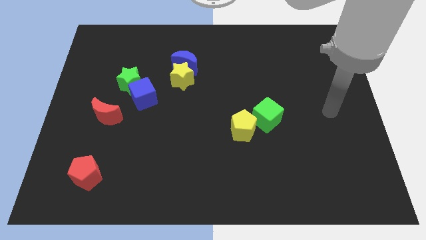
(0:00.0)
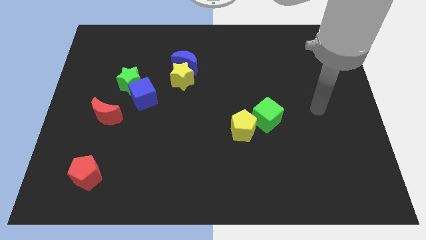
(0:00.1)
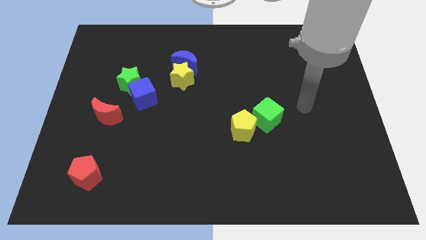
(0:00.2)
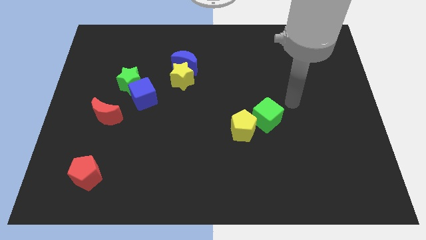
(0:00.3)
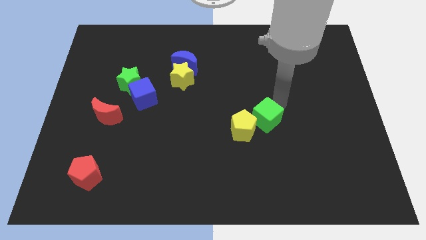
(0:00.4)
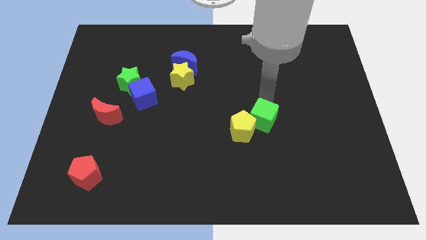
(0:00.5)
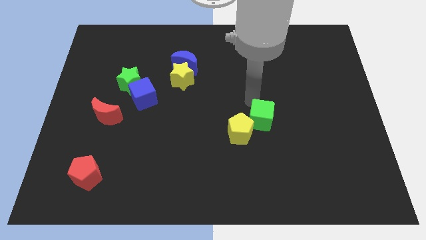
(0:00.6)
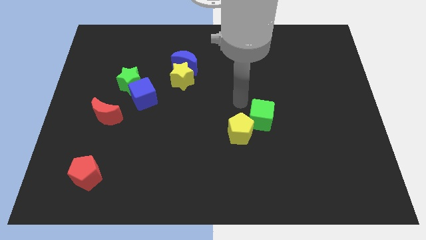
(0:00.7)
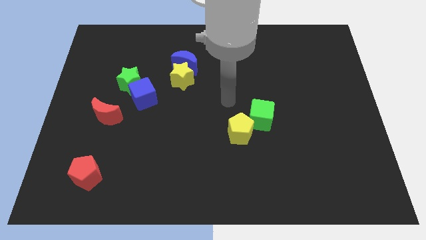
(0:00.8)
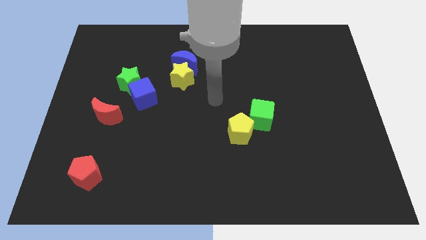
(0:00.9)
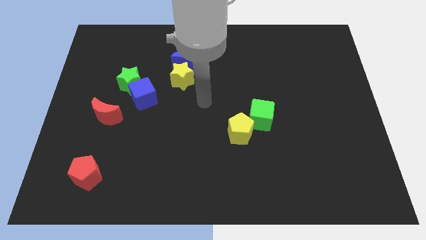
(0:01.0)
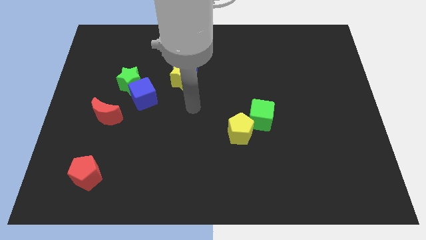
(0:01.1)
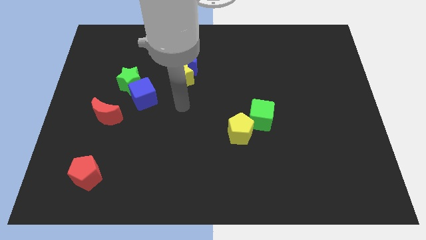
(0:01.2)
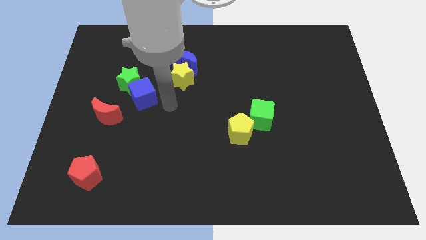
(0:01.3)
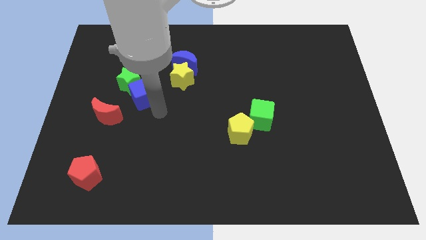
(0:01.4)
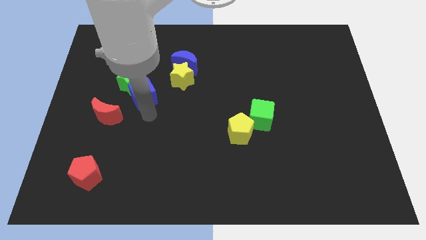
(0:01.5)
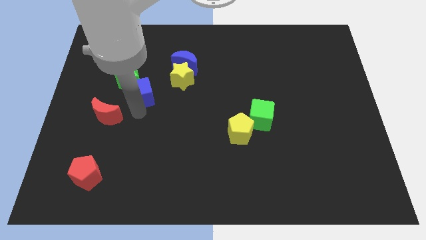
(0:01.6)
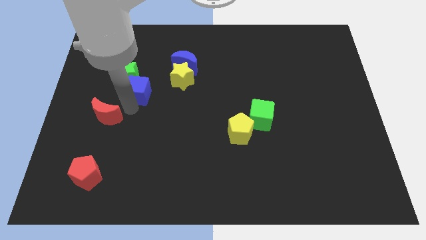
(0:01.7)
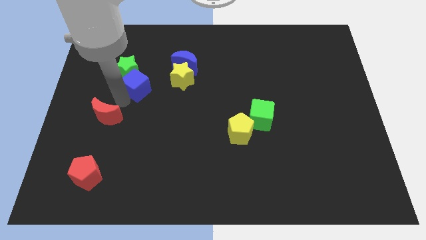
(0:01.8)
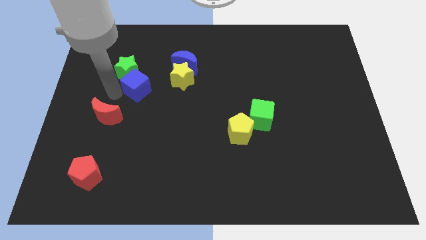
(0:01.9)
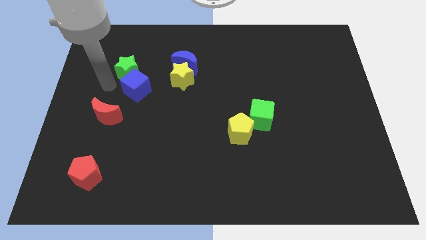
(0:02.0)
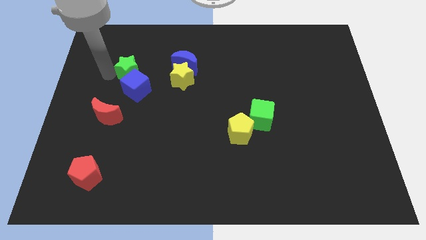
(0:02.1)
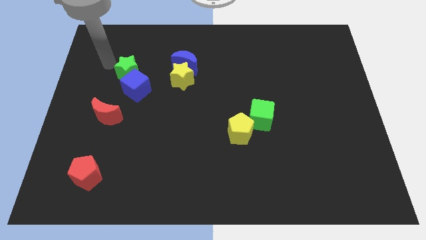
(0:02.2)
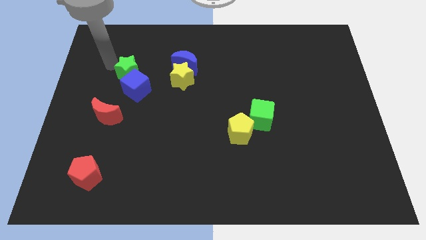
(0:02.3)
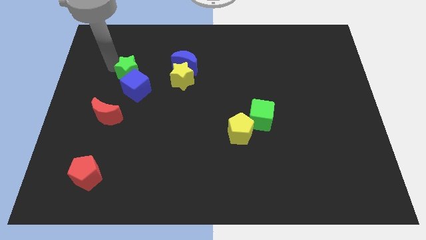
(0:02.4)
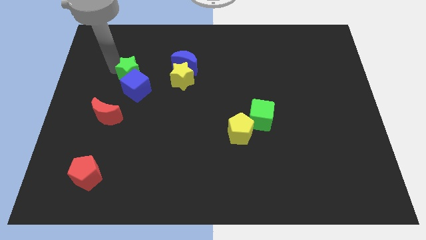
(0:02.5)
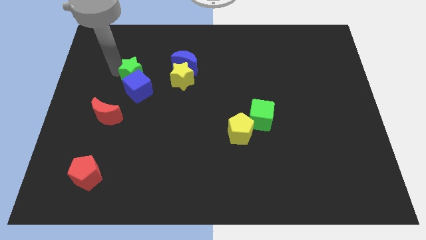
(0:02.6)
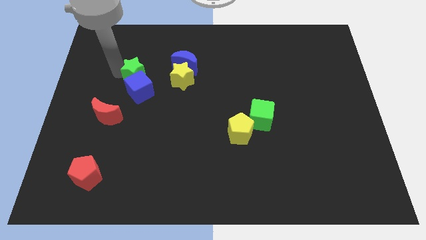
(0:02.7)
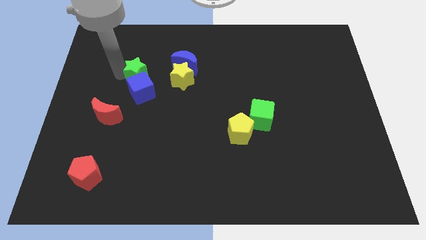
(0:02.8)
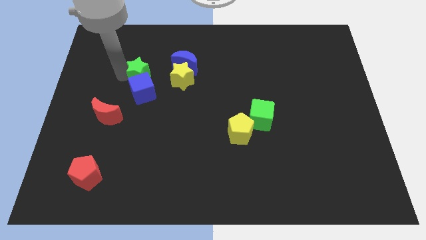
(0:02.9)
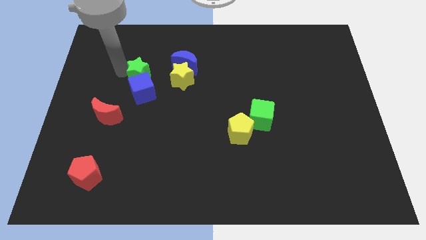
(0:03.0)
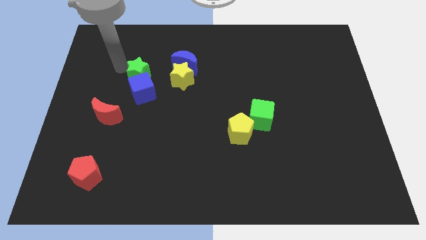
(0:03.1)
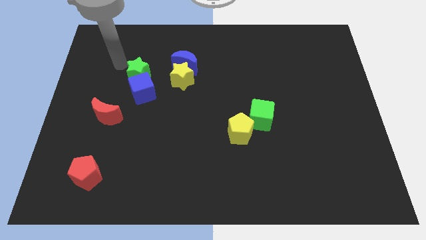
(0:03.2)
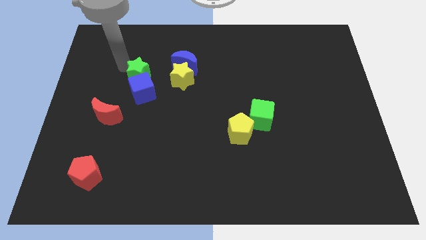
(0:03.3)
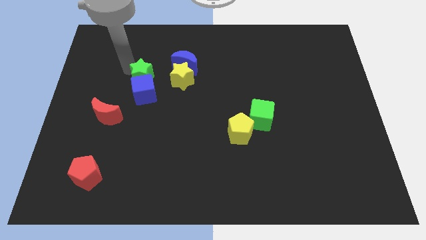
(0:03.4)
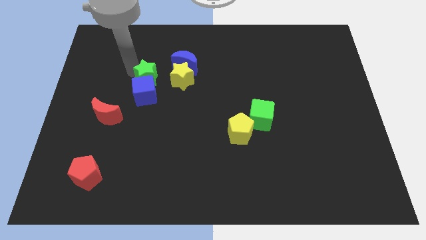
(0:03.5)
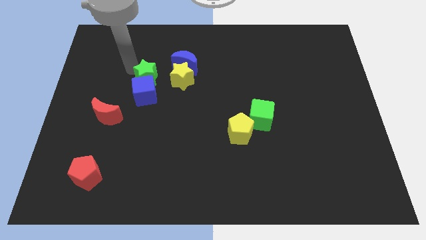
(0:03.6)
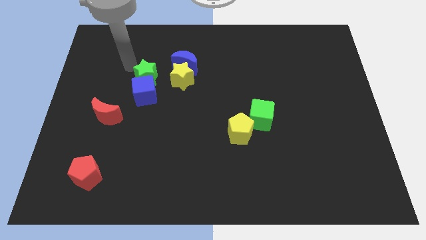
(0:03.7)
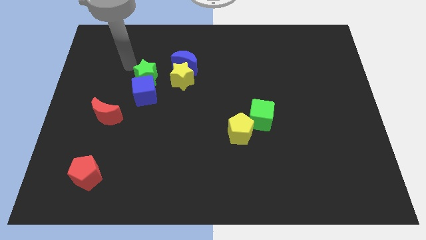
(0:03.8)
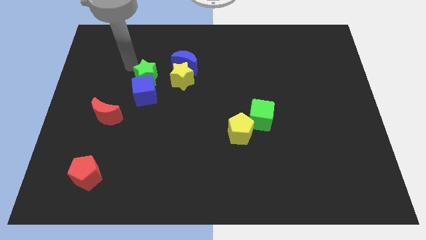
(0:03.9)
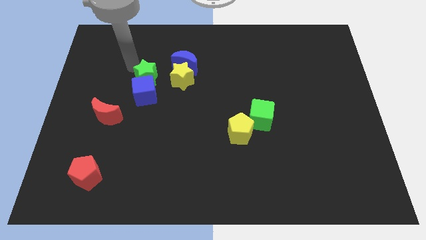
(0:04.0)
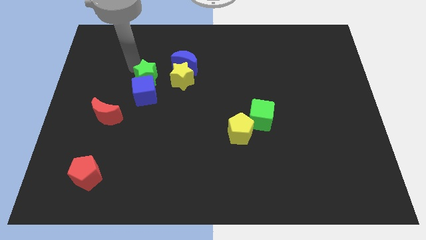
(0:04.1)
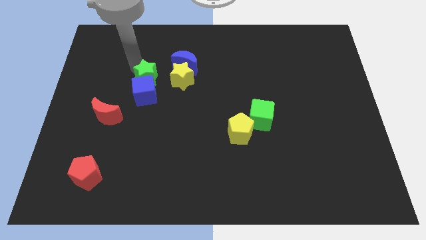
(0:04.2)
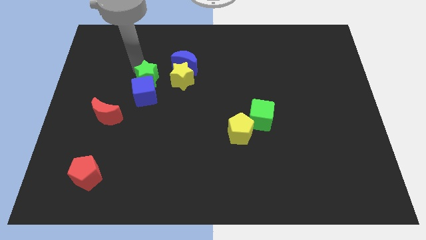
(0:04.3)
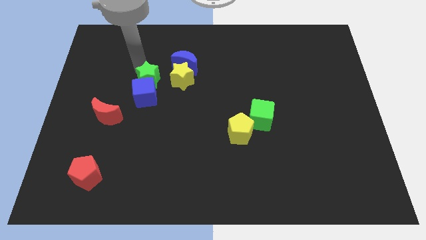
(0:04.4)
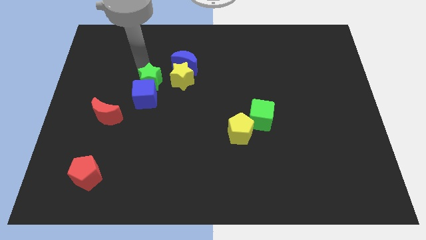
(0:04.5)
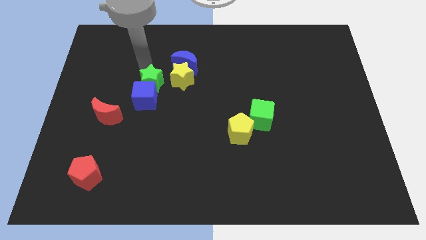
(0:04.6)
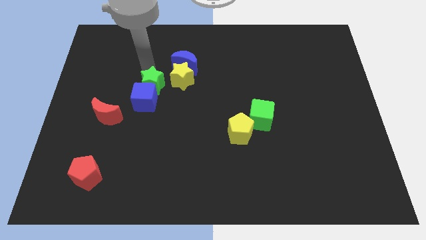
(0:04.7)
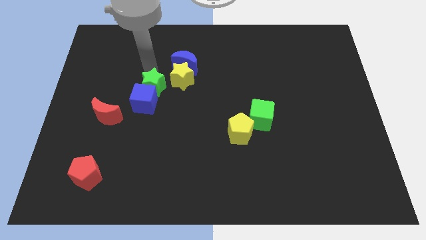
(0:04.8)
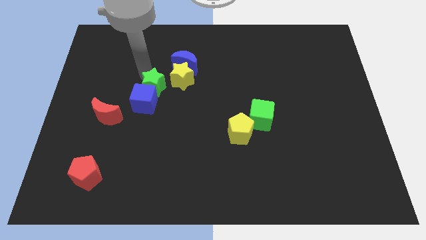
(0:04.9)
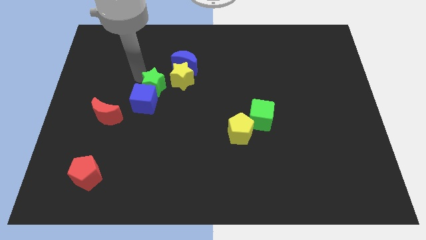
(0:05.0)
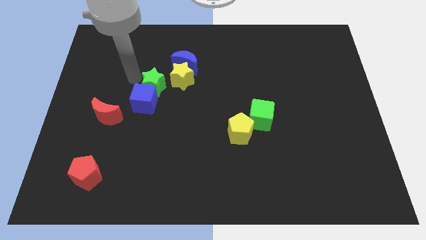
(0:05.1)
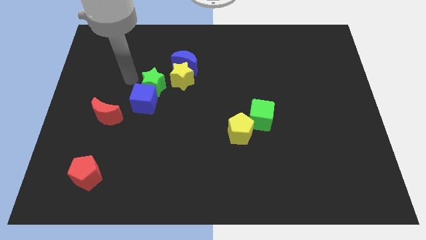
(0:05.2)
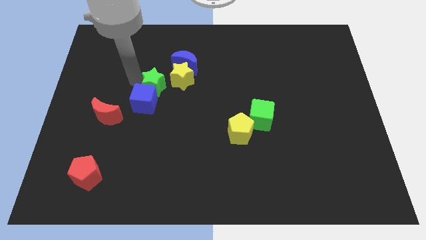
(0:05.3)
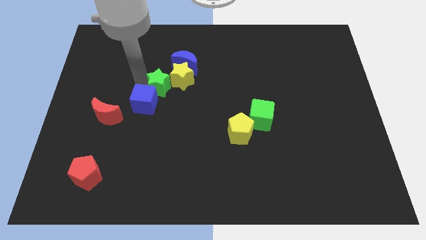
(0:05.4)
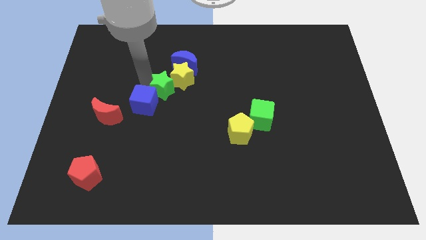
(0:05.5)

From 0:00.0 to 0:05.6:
put the green star to the right side of the blue cube

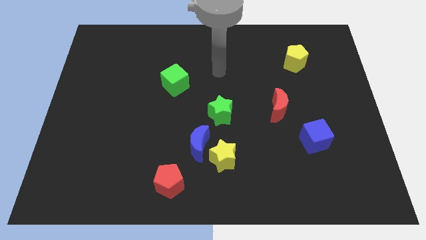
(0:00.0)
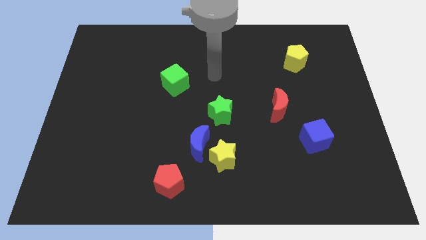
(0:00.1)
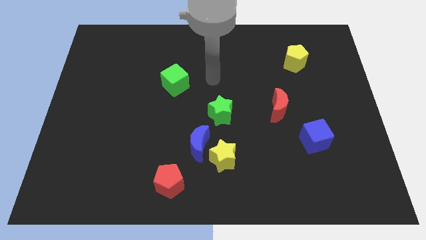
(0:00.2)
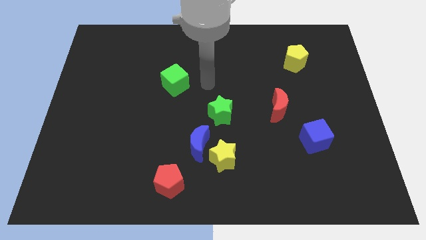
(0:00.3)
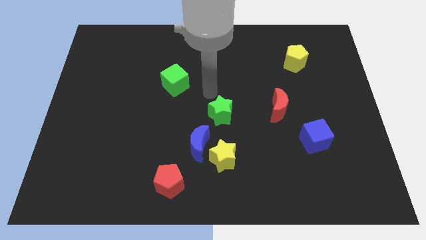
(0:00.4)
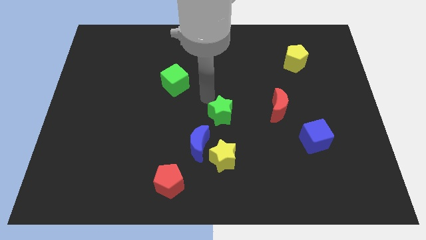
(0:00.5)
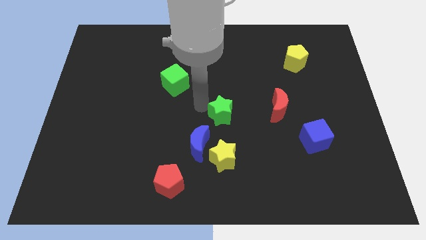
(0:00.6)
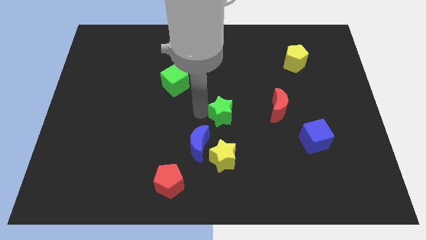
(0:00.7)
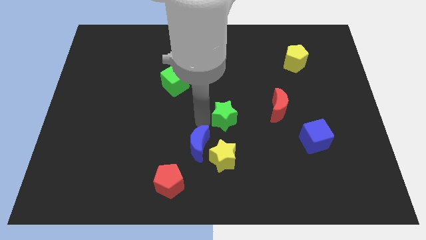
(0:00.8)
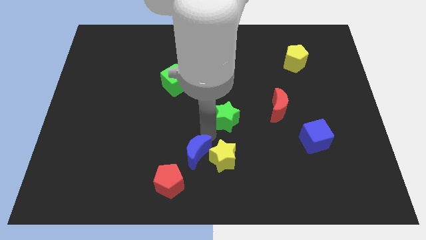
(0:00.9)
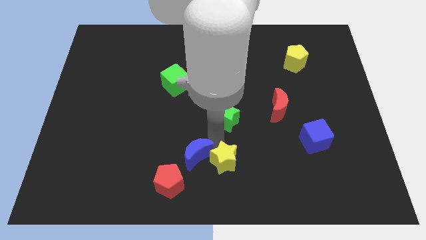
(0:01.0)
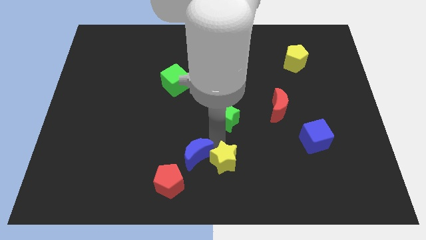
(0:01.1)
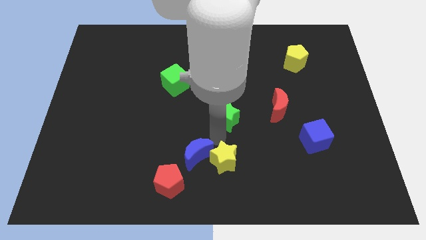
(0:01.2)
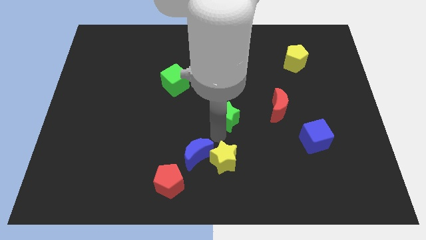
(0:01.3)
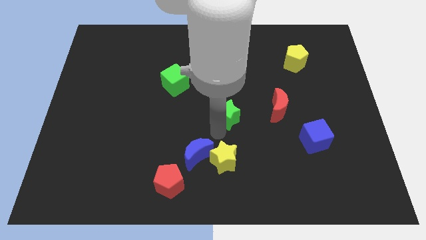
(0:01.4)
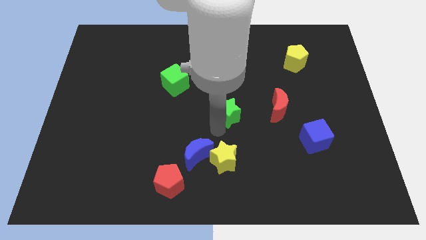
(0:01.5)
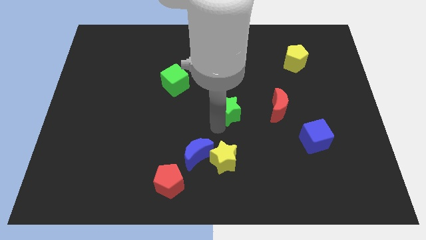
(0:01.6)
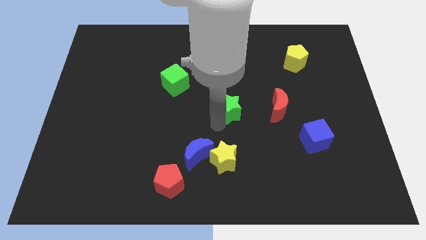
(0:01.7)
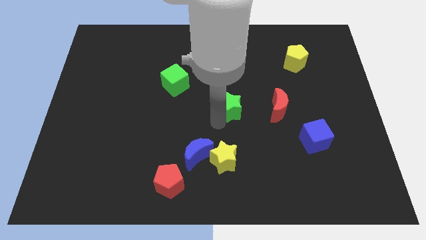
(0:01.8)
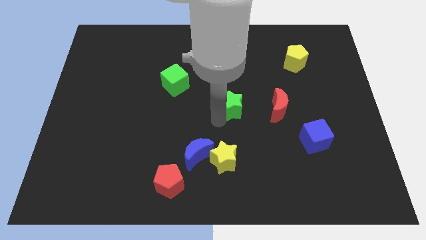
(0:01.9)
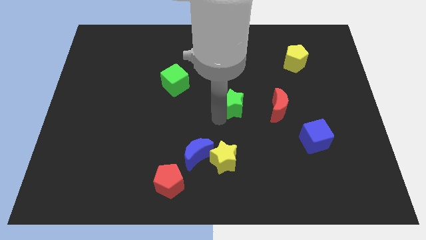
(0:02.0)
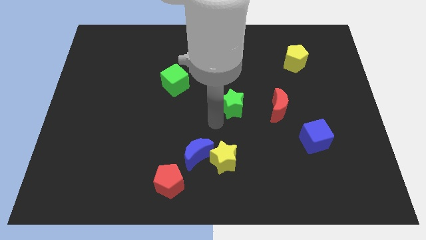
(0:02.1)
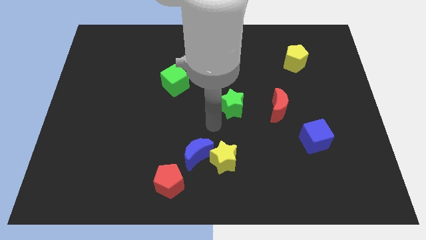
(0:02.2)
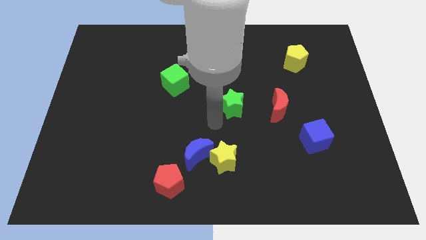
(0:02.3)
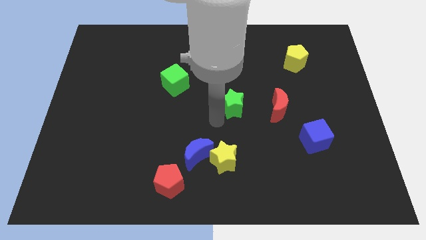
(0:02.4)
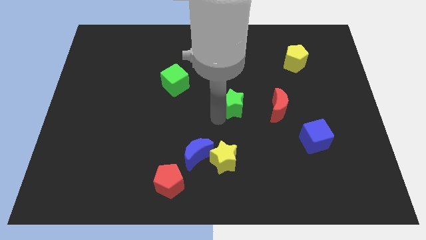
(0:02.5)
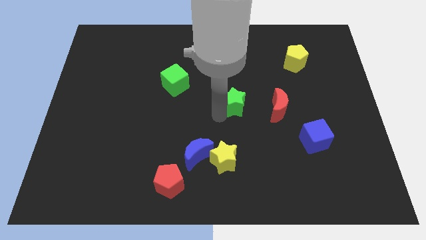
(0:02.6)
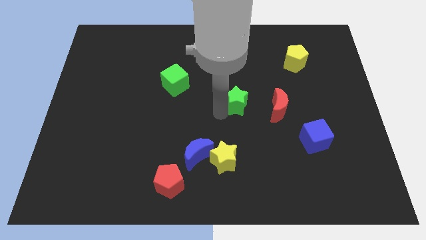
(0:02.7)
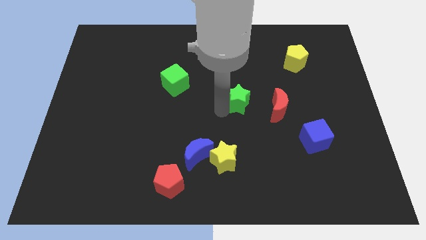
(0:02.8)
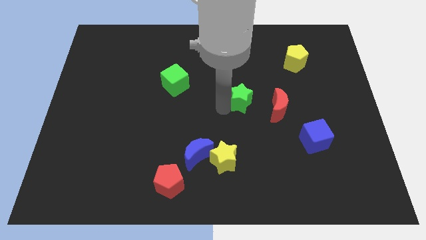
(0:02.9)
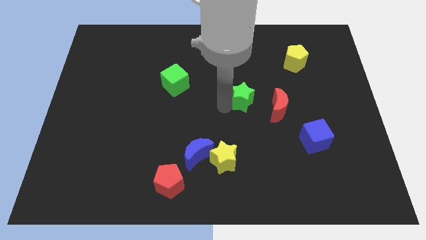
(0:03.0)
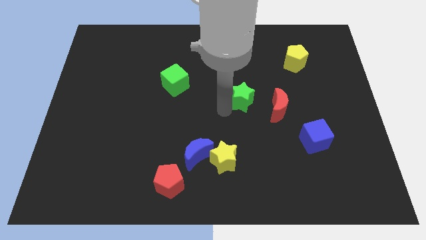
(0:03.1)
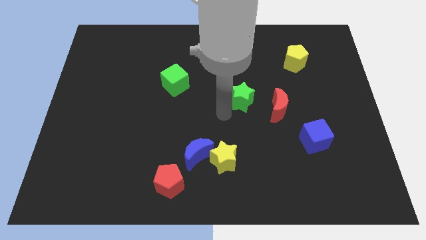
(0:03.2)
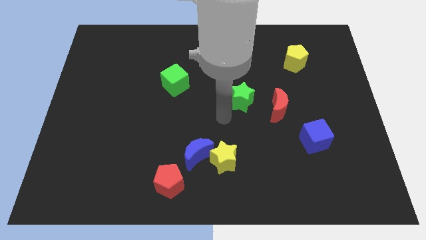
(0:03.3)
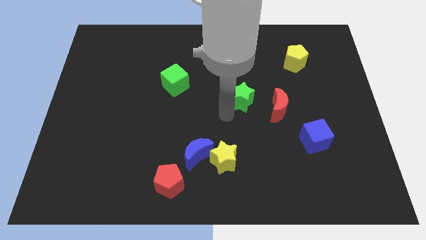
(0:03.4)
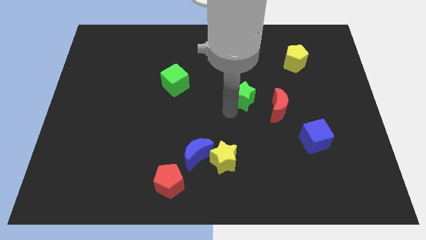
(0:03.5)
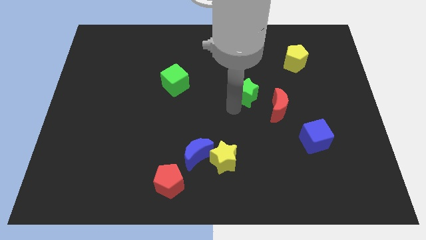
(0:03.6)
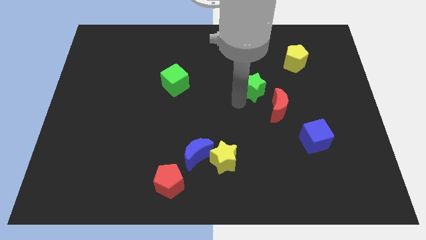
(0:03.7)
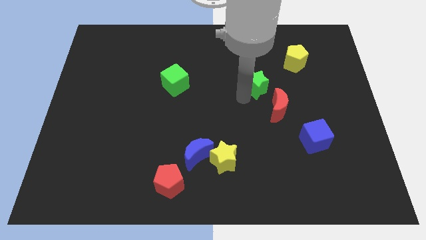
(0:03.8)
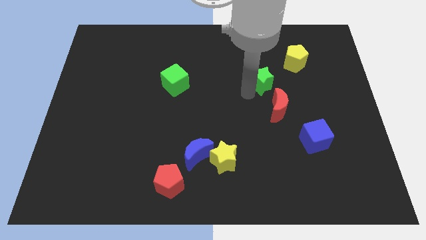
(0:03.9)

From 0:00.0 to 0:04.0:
move the green star to the top side of the red moon
